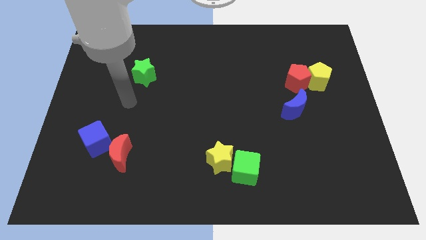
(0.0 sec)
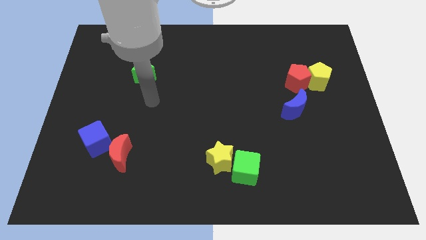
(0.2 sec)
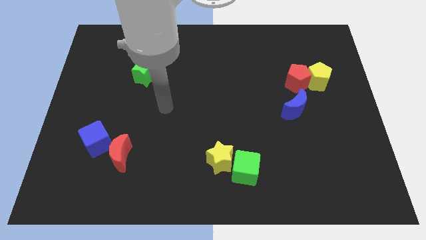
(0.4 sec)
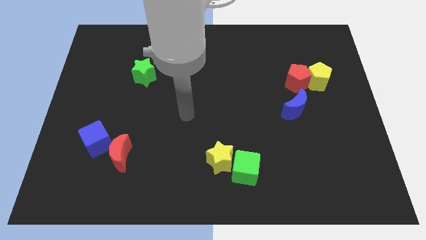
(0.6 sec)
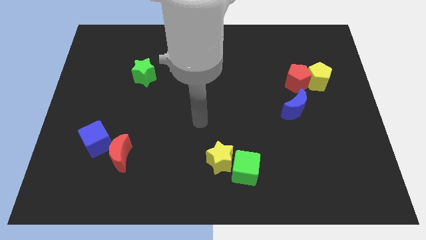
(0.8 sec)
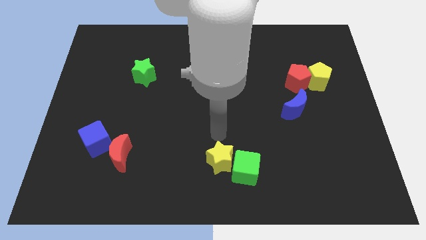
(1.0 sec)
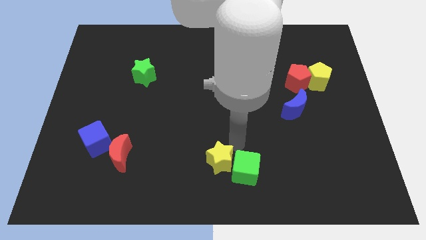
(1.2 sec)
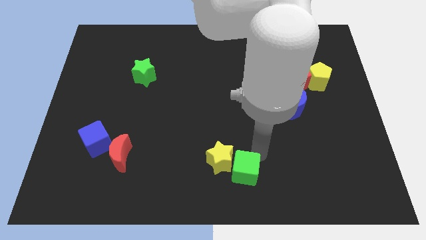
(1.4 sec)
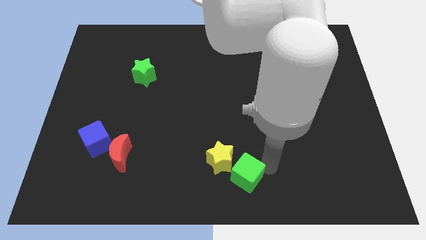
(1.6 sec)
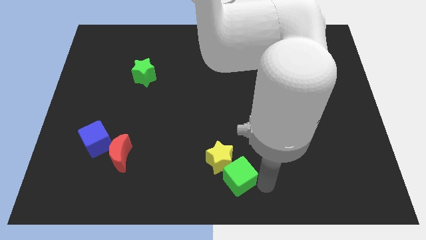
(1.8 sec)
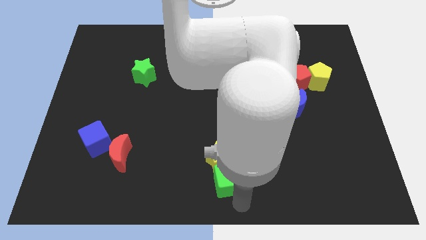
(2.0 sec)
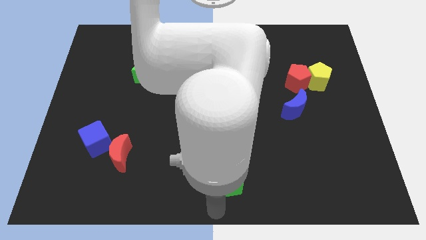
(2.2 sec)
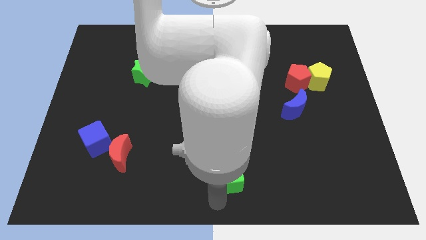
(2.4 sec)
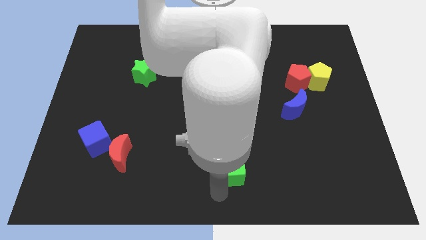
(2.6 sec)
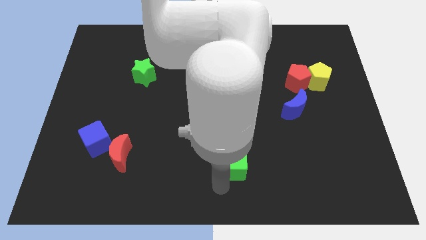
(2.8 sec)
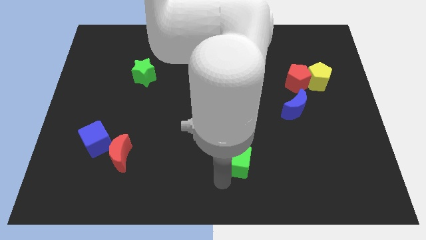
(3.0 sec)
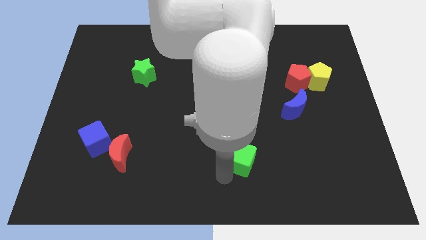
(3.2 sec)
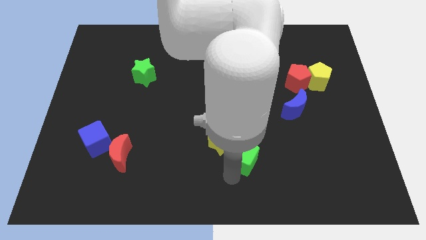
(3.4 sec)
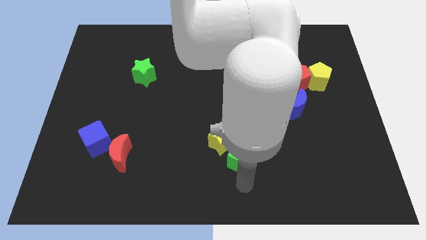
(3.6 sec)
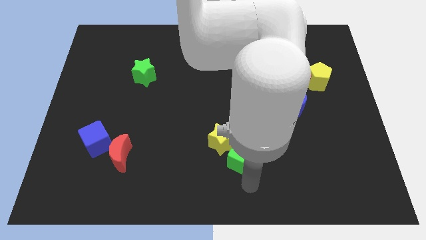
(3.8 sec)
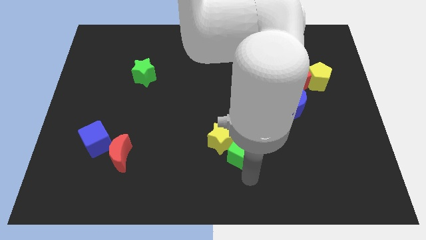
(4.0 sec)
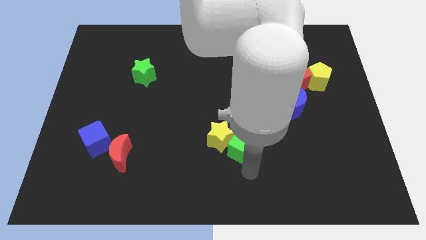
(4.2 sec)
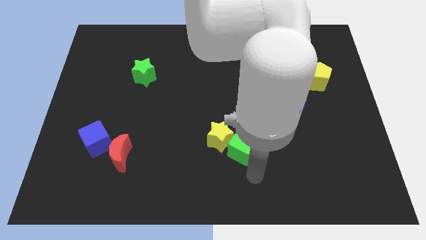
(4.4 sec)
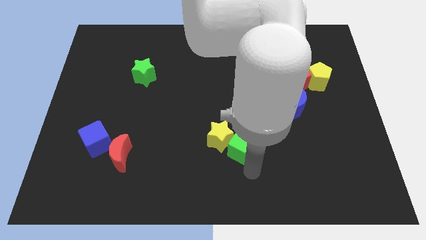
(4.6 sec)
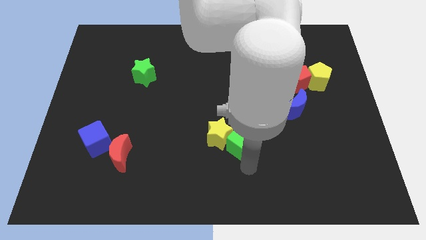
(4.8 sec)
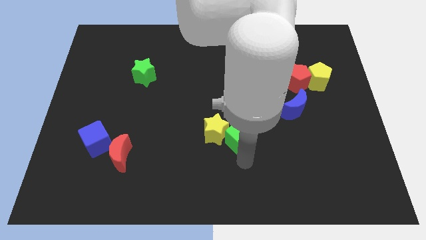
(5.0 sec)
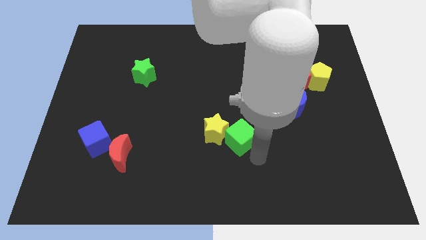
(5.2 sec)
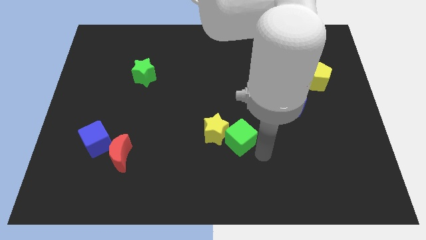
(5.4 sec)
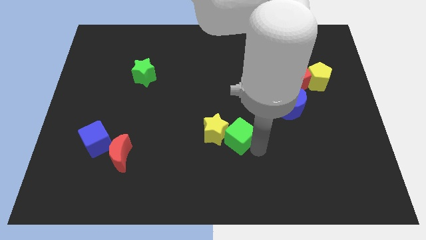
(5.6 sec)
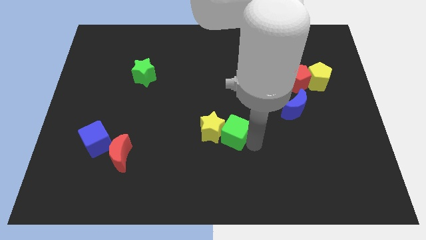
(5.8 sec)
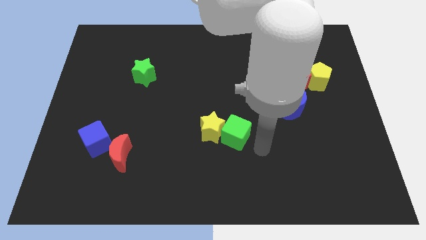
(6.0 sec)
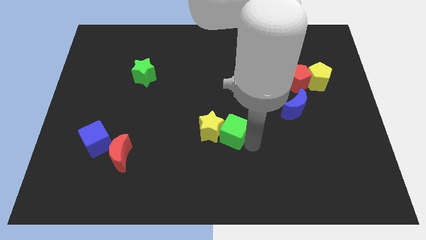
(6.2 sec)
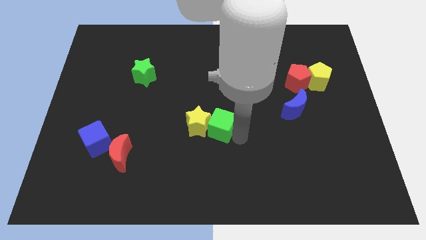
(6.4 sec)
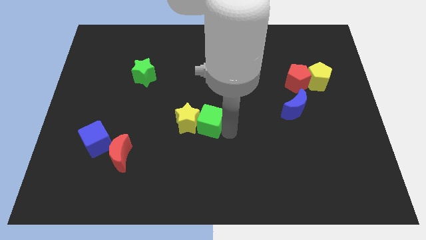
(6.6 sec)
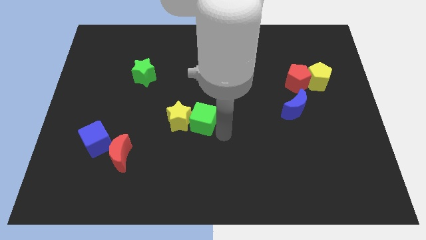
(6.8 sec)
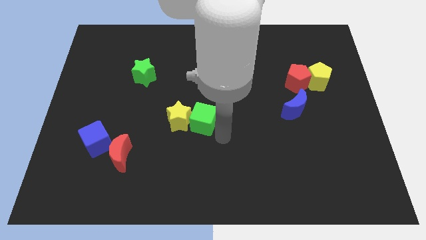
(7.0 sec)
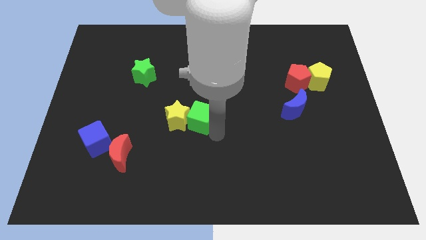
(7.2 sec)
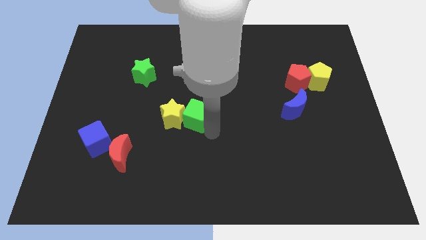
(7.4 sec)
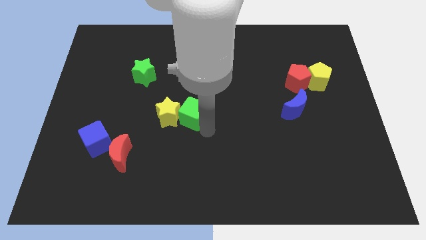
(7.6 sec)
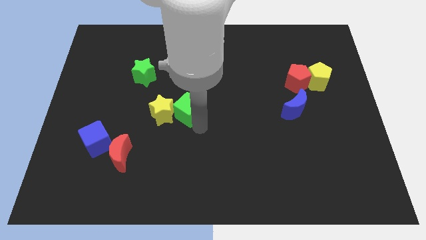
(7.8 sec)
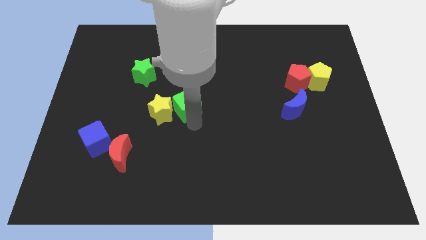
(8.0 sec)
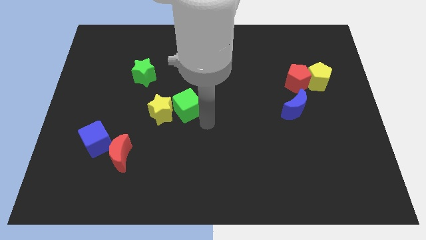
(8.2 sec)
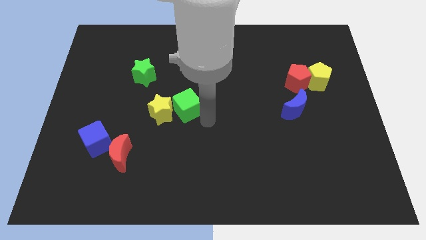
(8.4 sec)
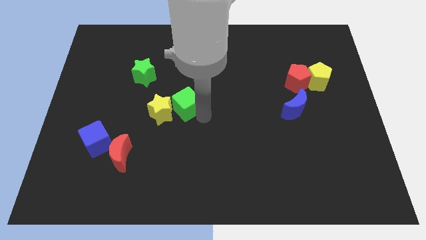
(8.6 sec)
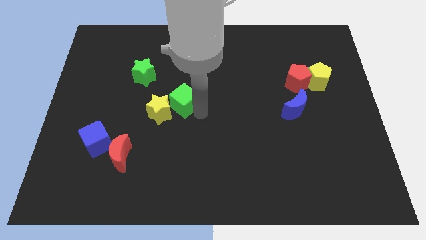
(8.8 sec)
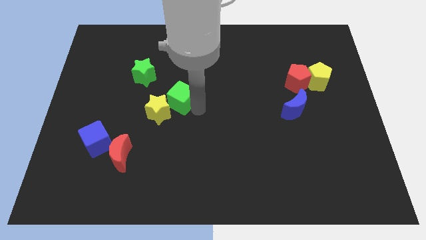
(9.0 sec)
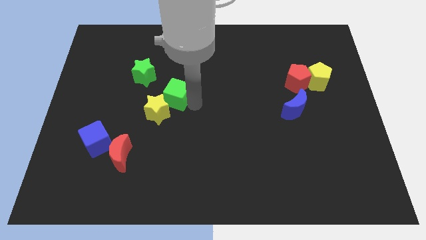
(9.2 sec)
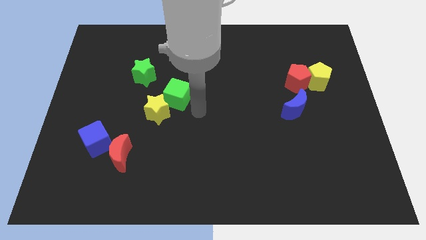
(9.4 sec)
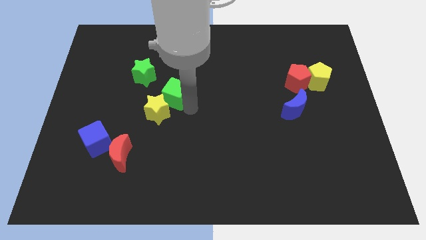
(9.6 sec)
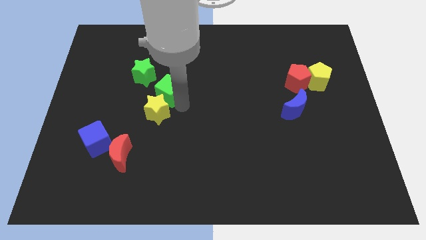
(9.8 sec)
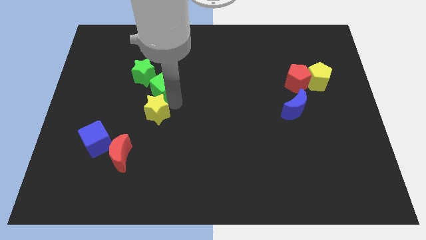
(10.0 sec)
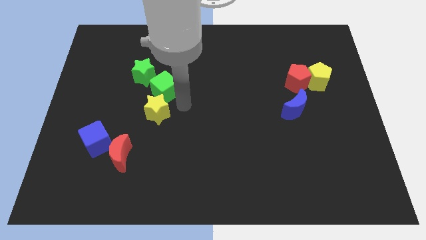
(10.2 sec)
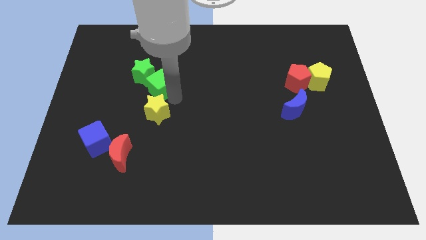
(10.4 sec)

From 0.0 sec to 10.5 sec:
push the green cube to the green star

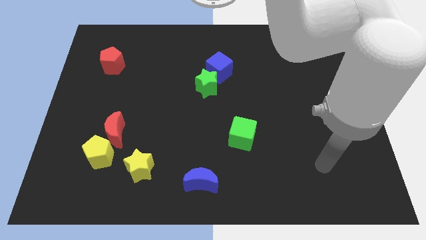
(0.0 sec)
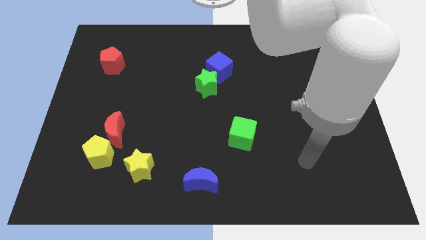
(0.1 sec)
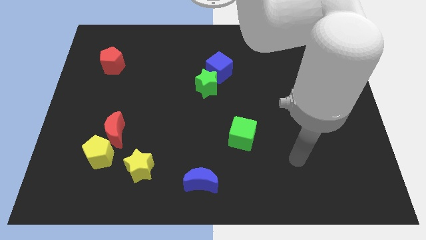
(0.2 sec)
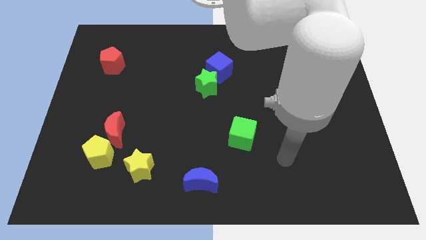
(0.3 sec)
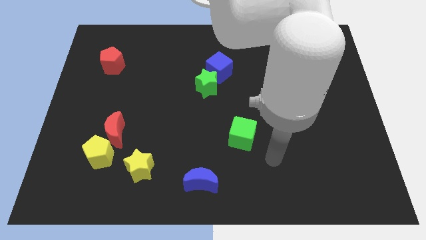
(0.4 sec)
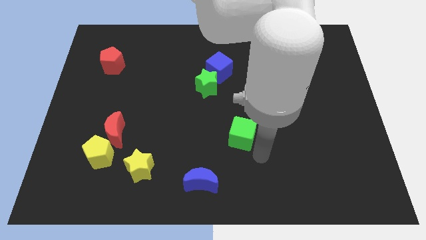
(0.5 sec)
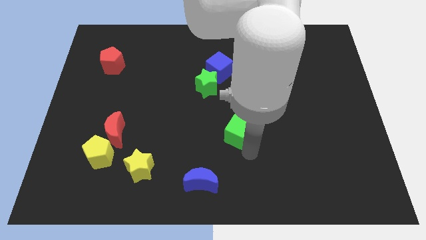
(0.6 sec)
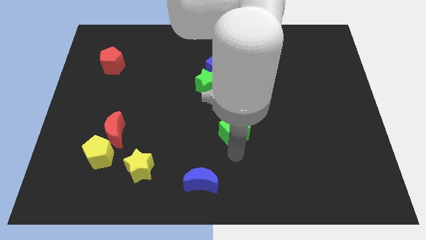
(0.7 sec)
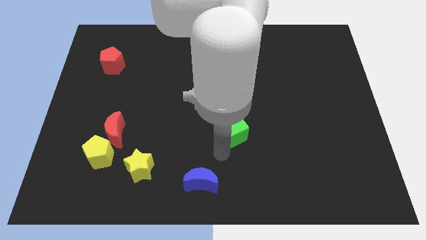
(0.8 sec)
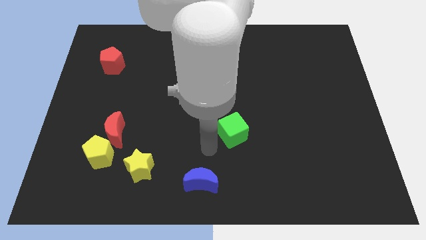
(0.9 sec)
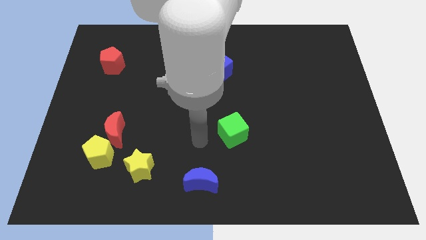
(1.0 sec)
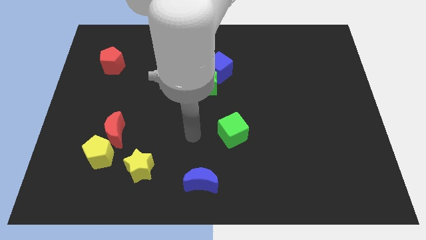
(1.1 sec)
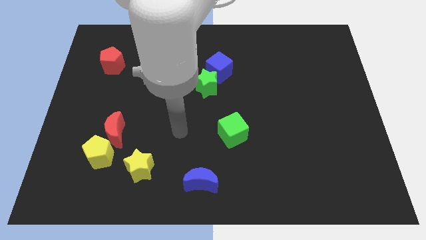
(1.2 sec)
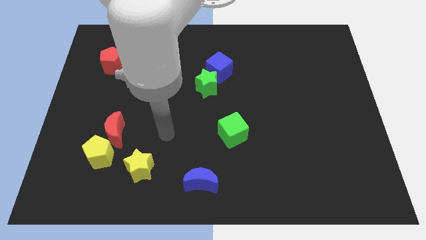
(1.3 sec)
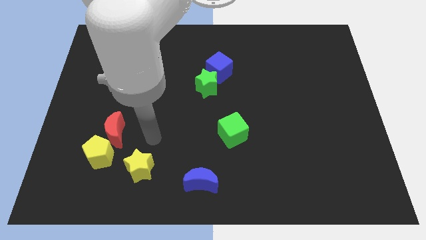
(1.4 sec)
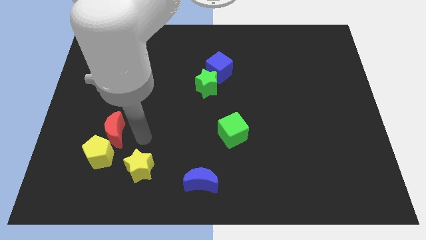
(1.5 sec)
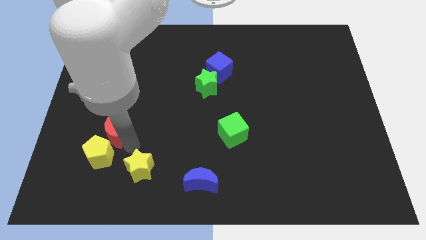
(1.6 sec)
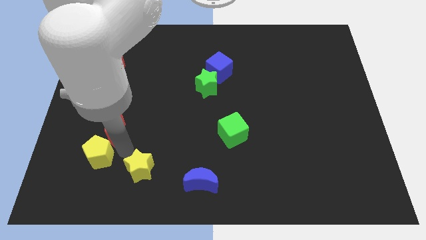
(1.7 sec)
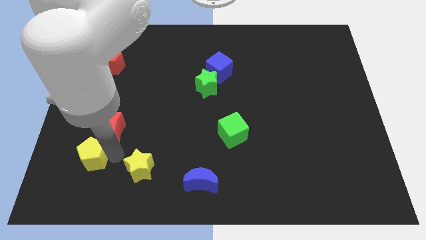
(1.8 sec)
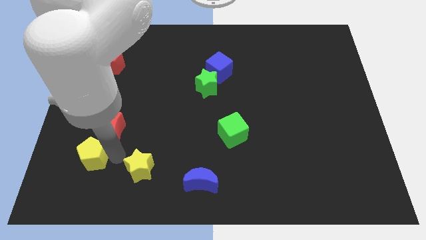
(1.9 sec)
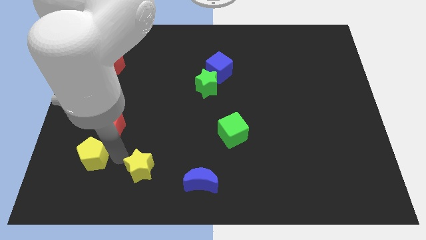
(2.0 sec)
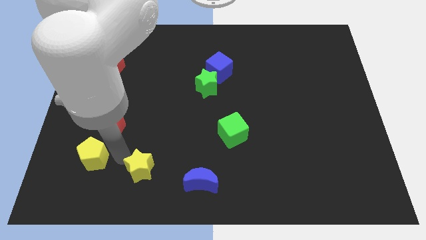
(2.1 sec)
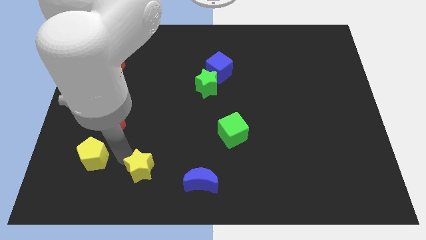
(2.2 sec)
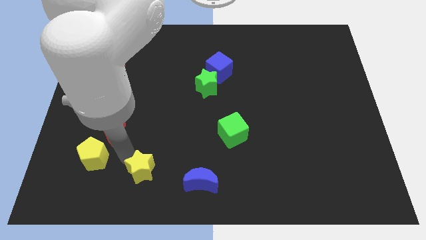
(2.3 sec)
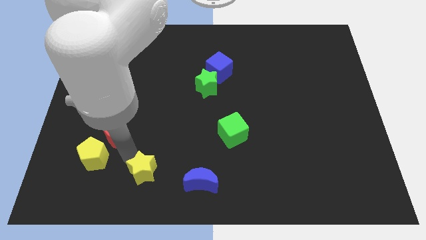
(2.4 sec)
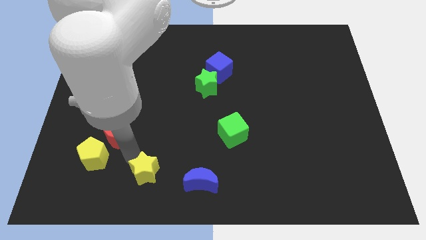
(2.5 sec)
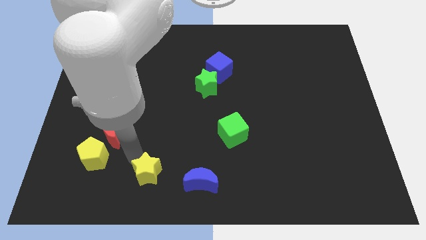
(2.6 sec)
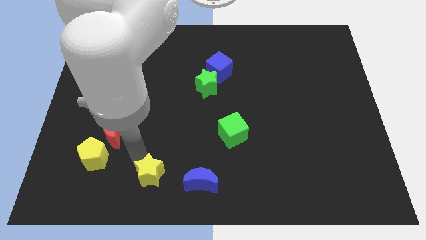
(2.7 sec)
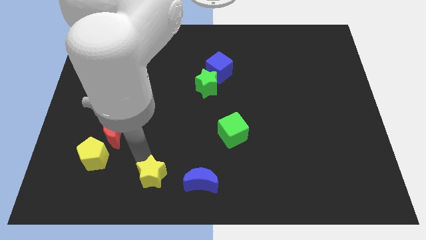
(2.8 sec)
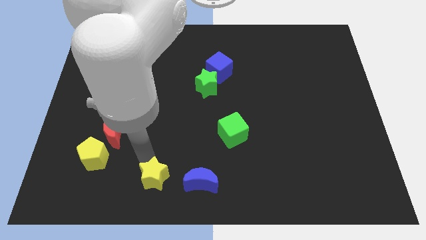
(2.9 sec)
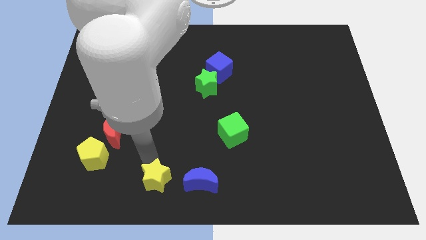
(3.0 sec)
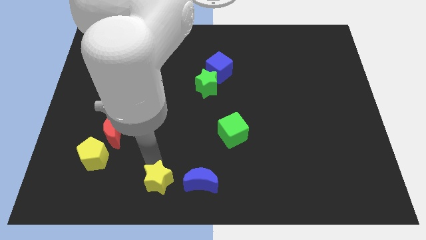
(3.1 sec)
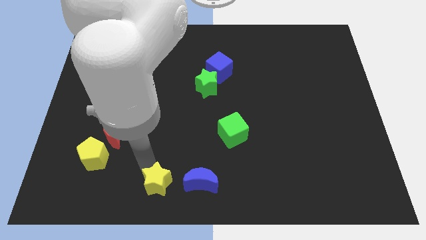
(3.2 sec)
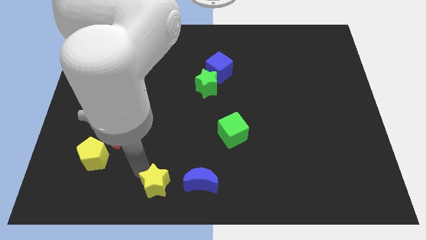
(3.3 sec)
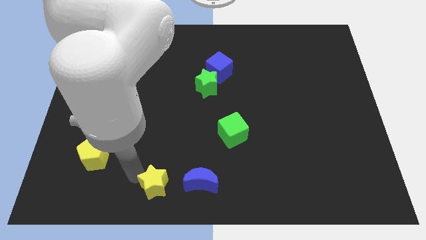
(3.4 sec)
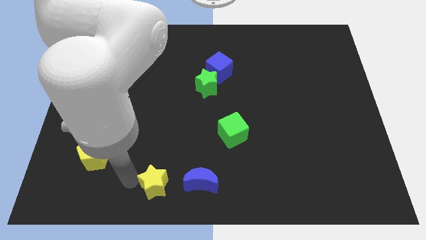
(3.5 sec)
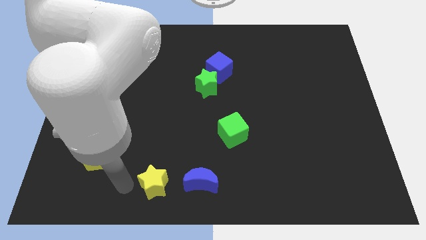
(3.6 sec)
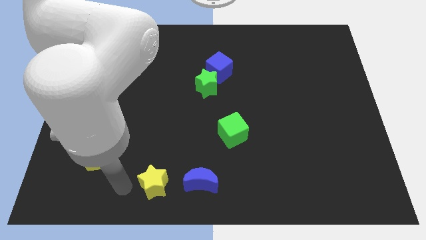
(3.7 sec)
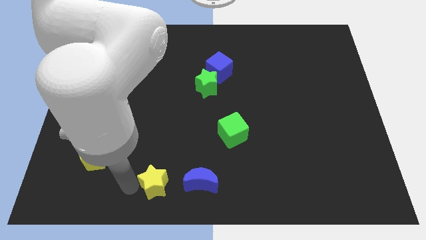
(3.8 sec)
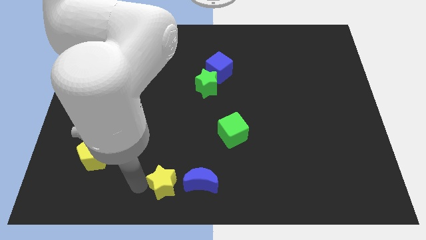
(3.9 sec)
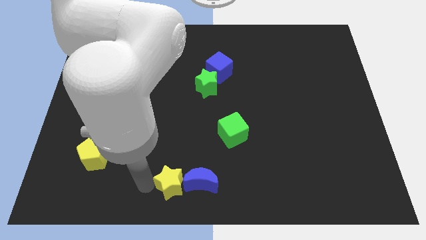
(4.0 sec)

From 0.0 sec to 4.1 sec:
move the yellow star to the blue moon
